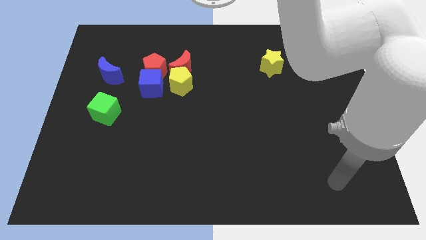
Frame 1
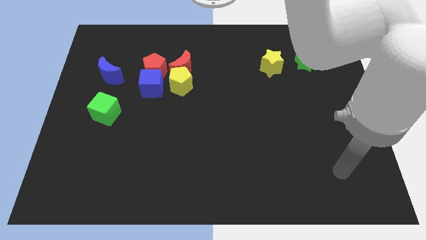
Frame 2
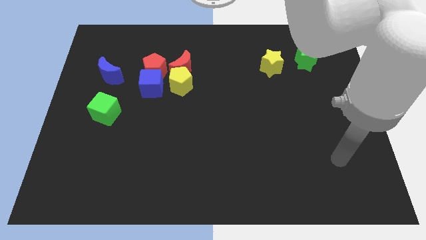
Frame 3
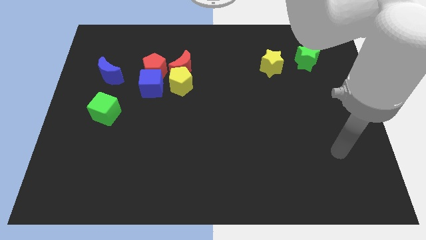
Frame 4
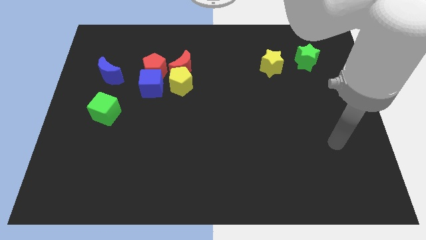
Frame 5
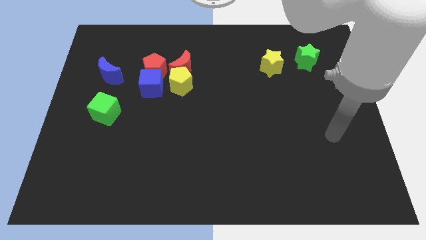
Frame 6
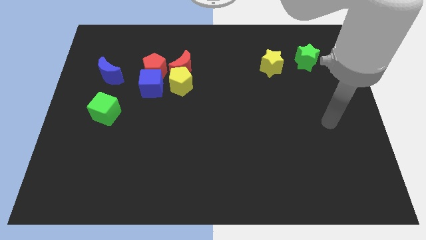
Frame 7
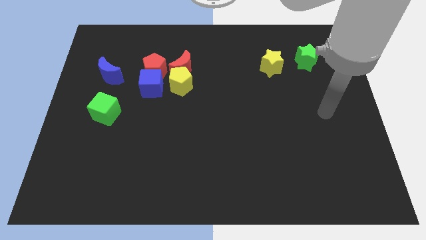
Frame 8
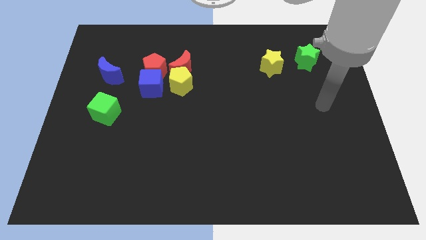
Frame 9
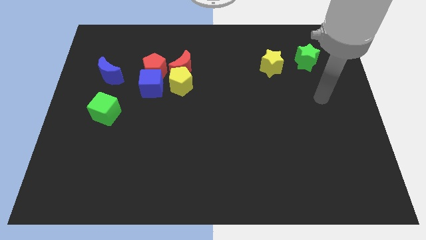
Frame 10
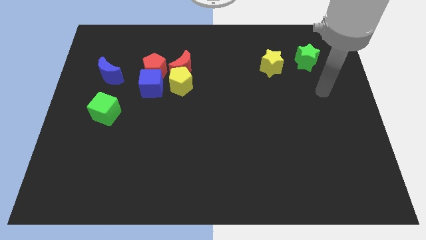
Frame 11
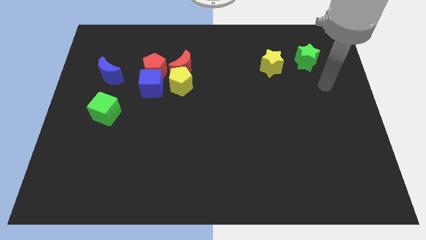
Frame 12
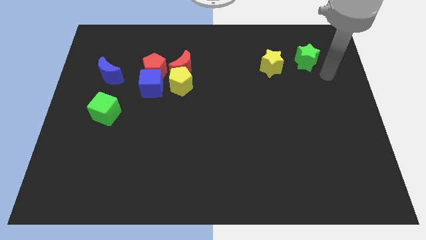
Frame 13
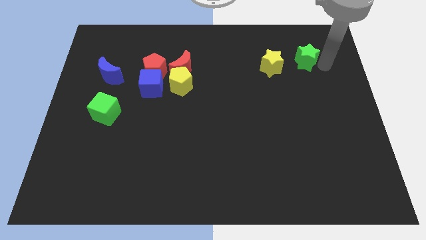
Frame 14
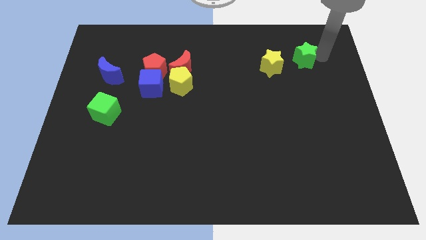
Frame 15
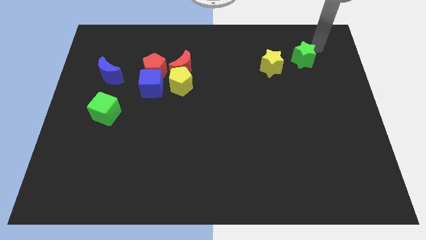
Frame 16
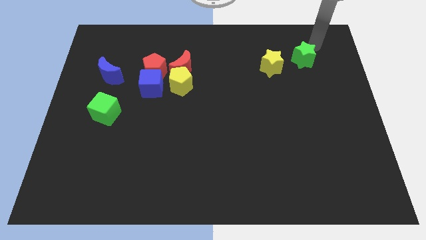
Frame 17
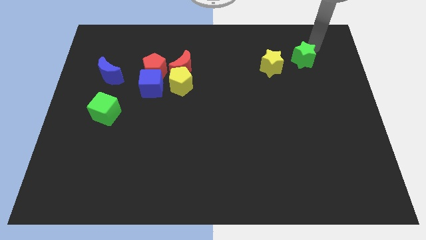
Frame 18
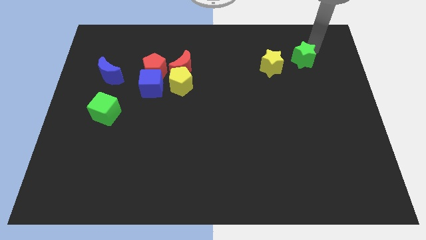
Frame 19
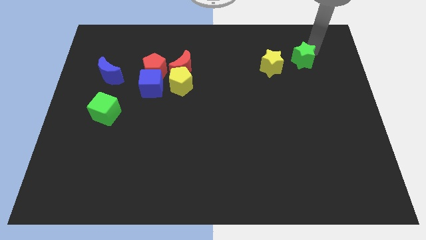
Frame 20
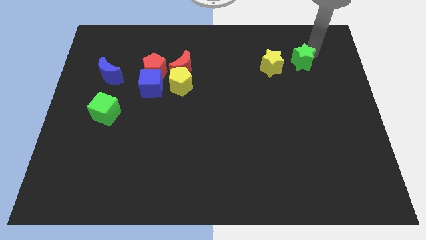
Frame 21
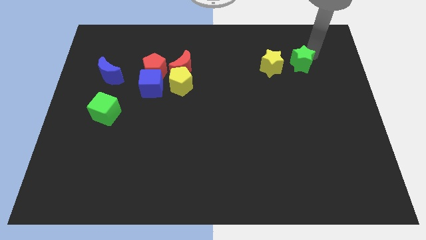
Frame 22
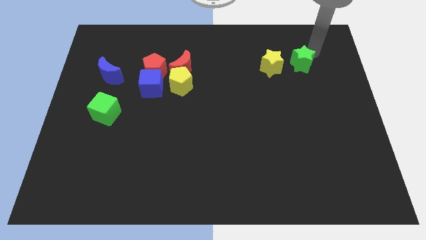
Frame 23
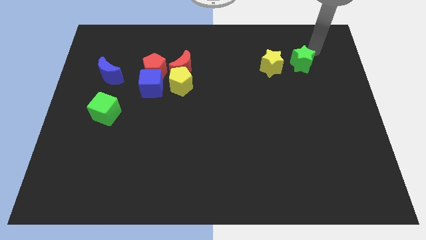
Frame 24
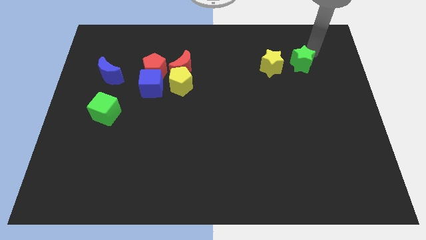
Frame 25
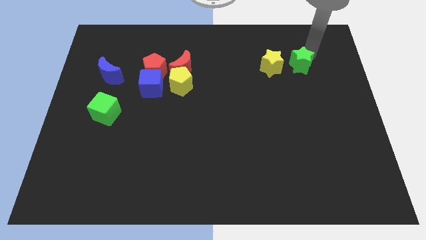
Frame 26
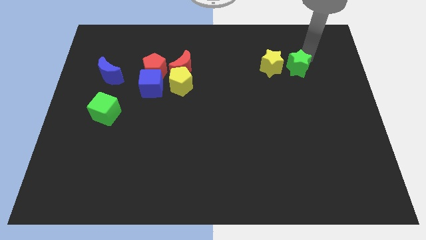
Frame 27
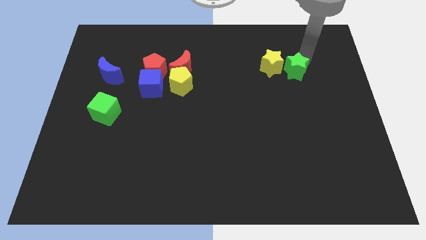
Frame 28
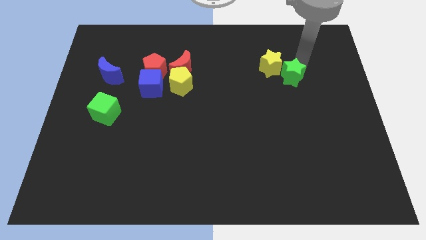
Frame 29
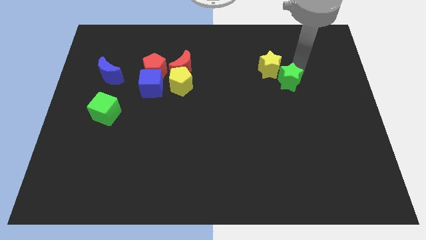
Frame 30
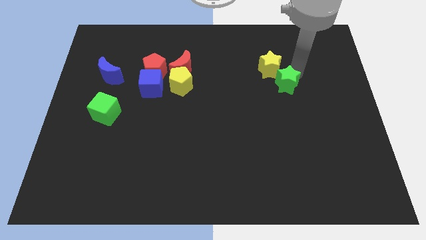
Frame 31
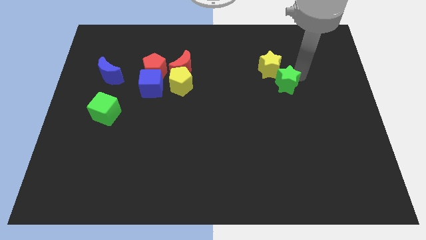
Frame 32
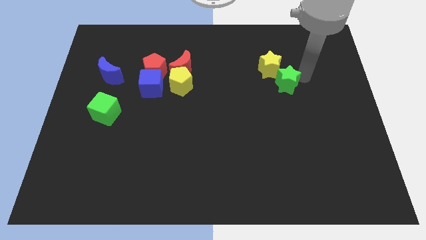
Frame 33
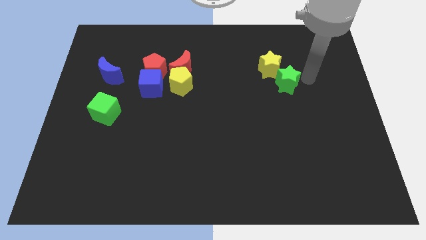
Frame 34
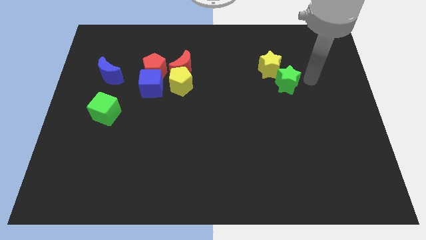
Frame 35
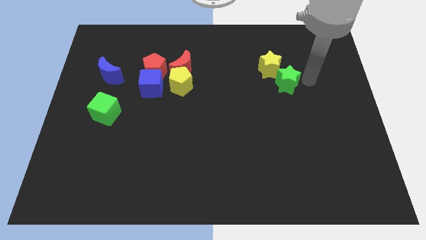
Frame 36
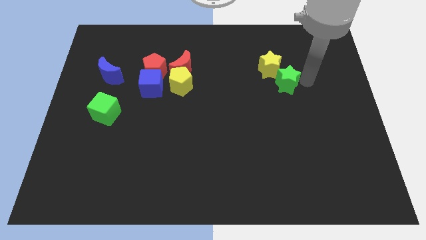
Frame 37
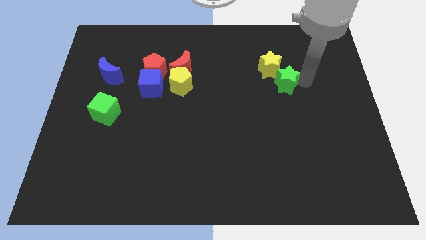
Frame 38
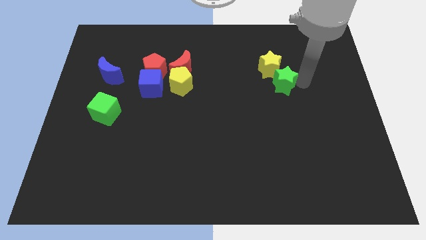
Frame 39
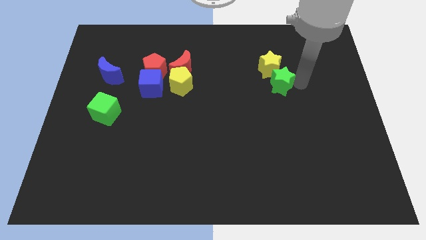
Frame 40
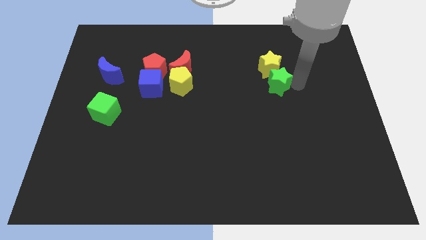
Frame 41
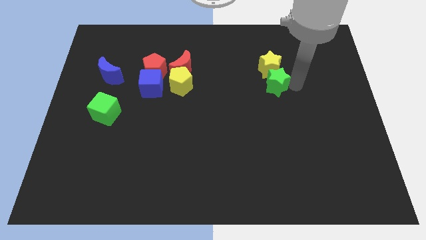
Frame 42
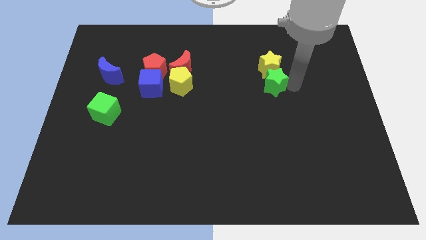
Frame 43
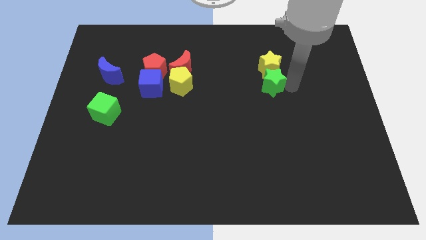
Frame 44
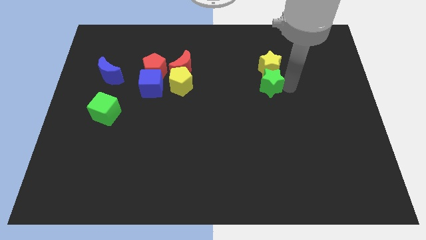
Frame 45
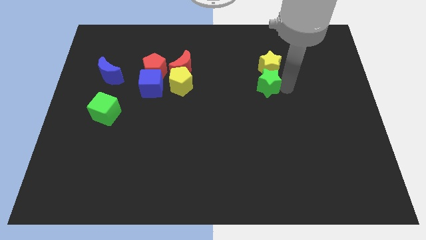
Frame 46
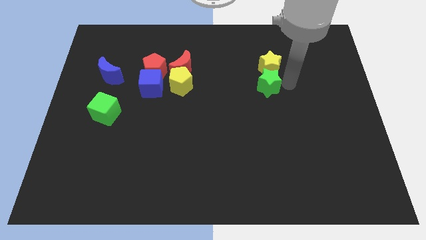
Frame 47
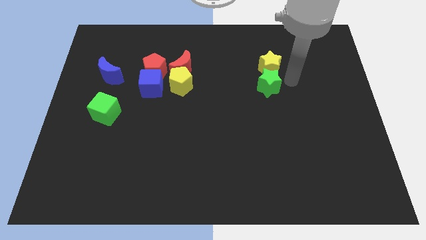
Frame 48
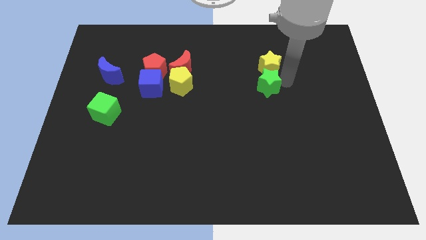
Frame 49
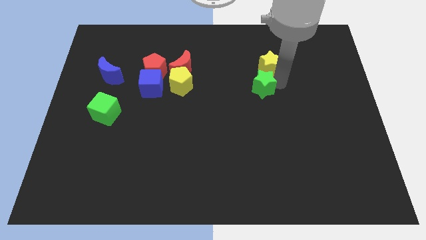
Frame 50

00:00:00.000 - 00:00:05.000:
move the green star to the middle

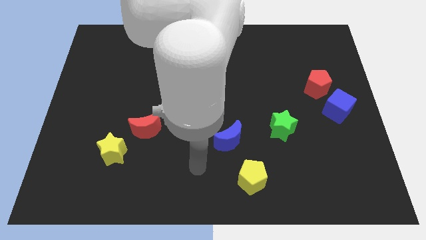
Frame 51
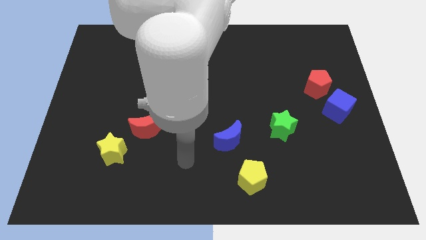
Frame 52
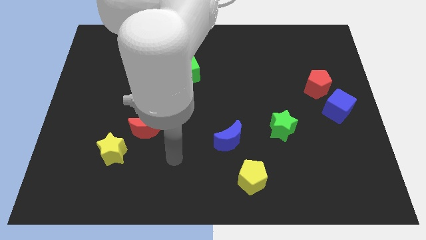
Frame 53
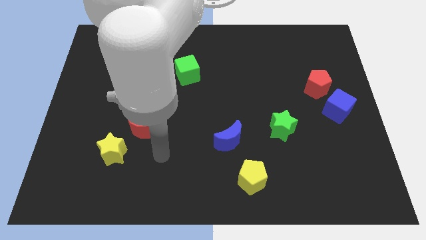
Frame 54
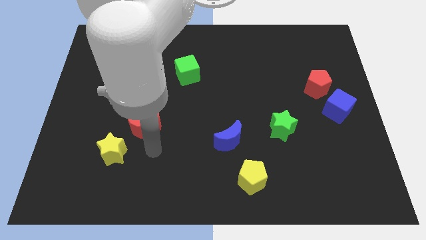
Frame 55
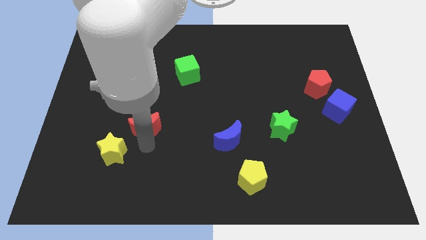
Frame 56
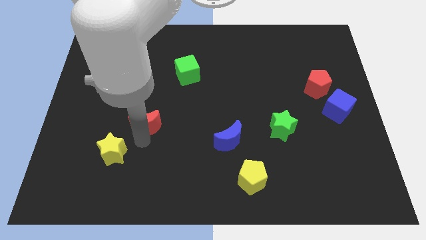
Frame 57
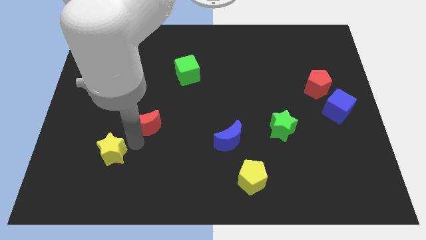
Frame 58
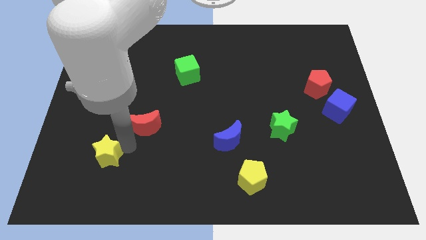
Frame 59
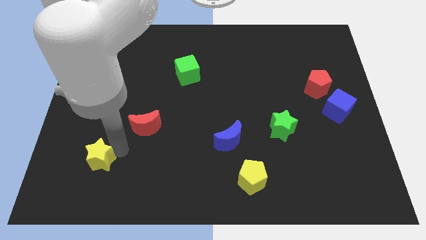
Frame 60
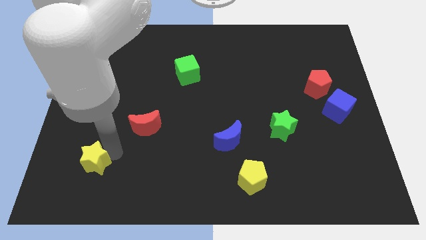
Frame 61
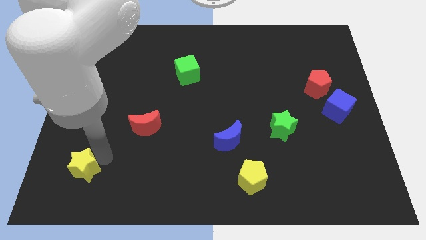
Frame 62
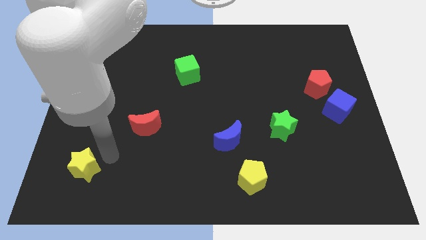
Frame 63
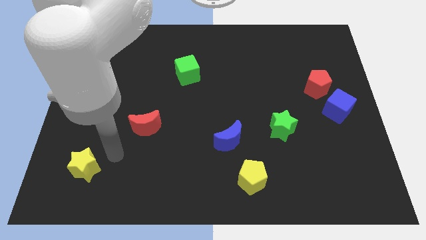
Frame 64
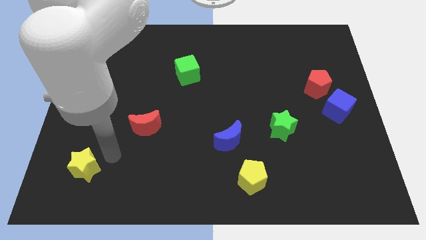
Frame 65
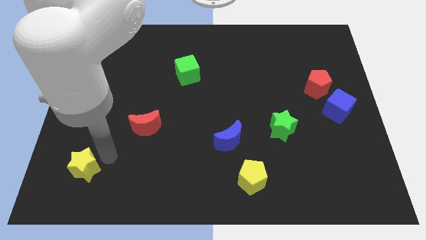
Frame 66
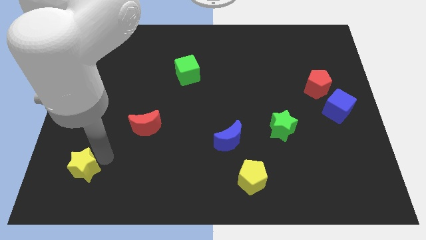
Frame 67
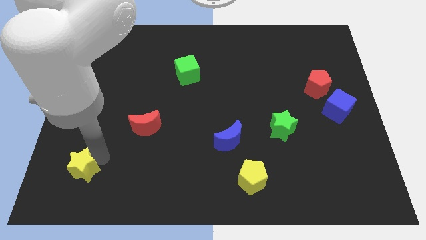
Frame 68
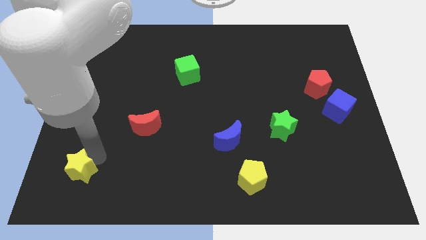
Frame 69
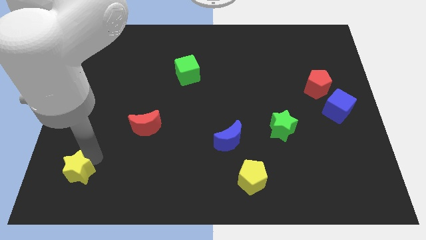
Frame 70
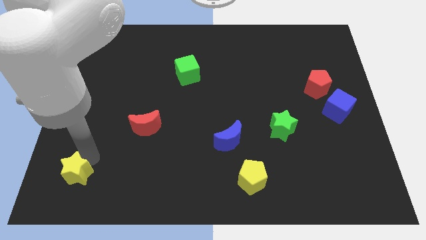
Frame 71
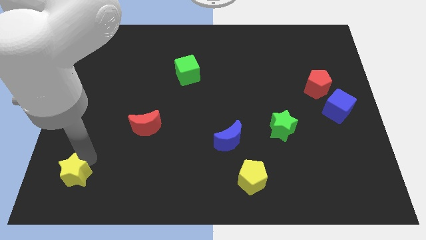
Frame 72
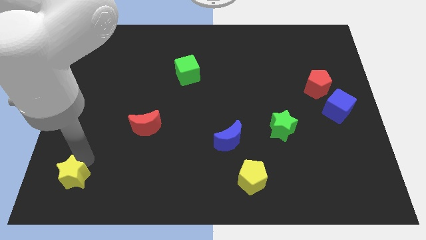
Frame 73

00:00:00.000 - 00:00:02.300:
slide the yellow star to the lower left corner
